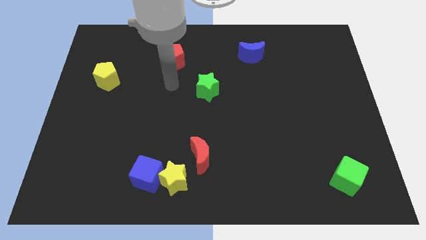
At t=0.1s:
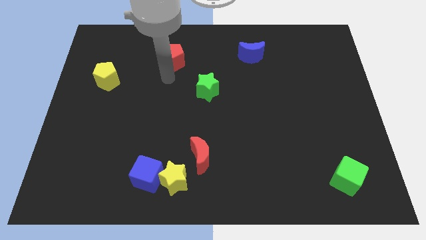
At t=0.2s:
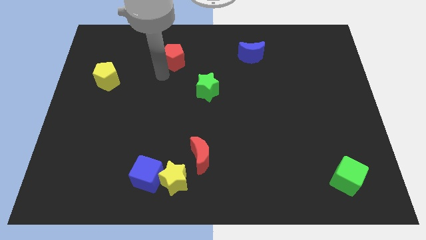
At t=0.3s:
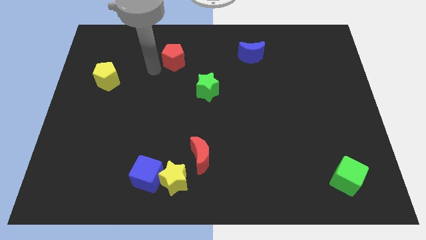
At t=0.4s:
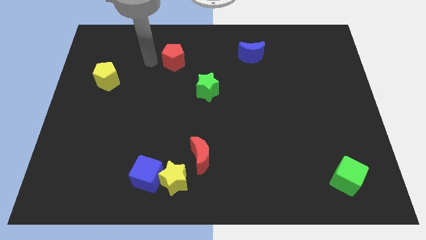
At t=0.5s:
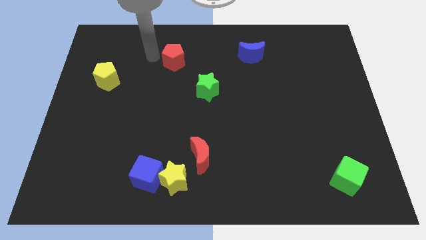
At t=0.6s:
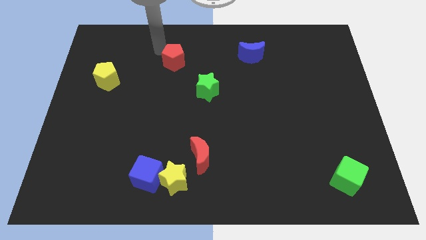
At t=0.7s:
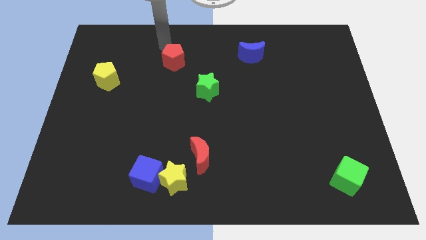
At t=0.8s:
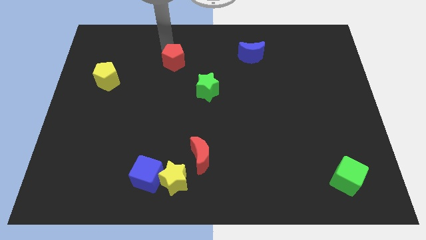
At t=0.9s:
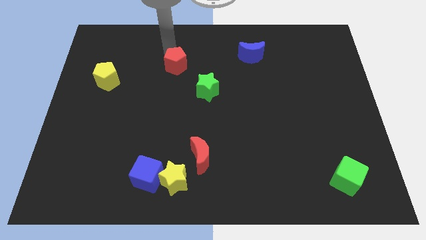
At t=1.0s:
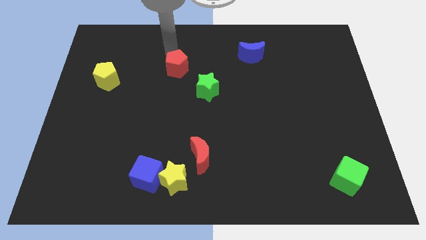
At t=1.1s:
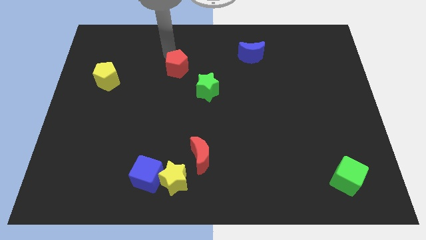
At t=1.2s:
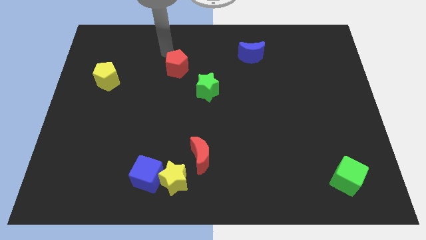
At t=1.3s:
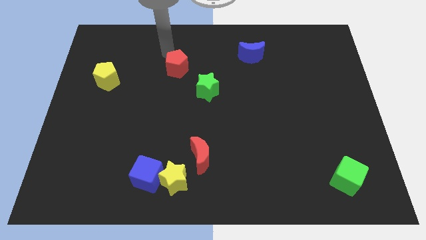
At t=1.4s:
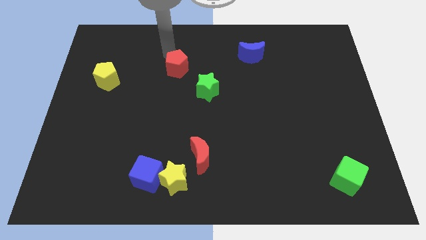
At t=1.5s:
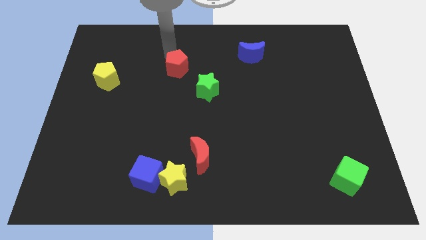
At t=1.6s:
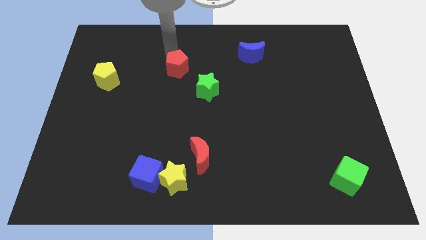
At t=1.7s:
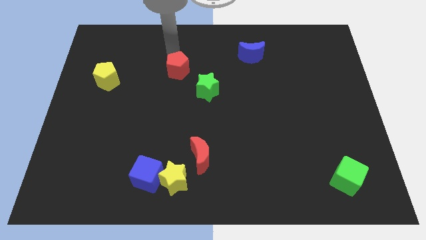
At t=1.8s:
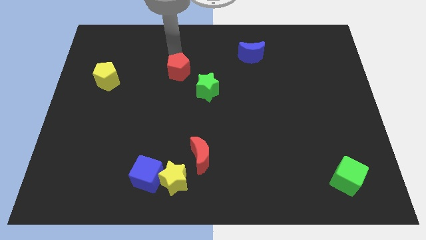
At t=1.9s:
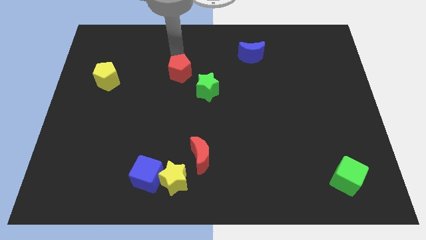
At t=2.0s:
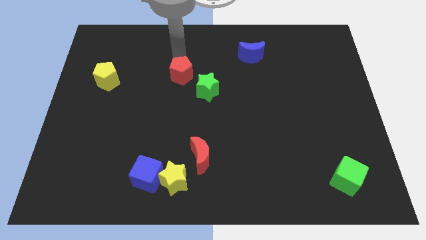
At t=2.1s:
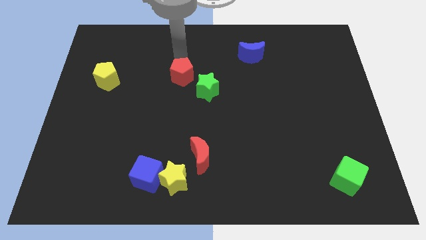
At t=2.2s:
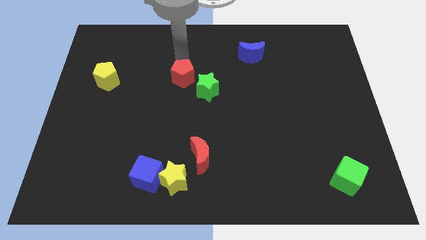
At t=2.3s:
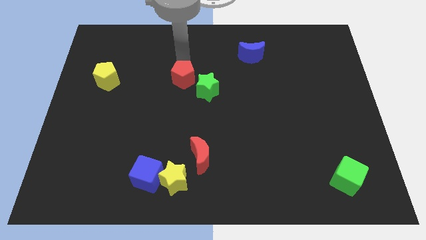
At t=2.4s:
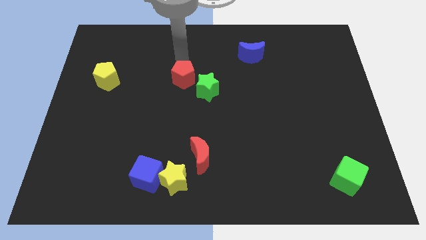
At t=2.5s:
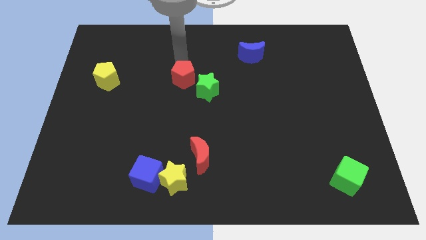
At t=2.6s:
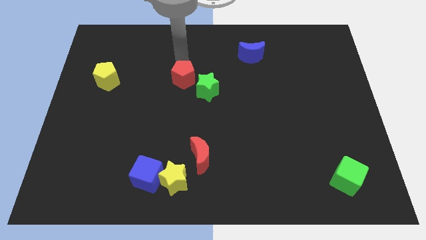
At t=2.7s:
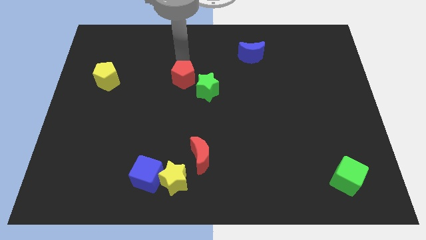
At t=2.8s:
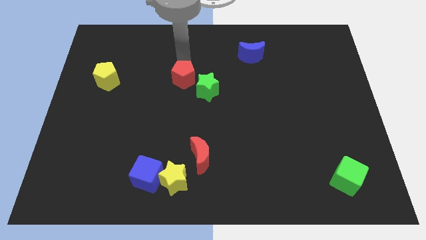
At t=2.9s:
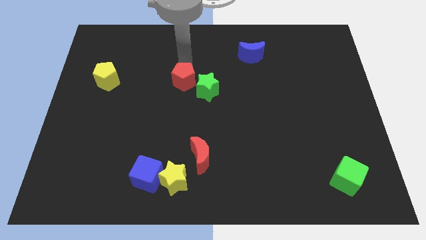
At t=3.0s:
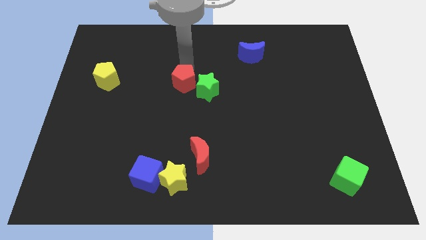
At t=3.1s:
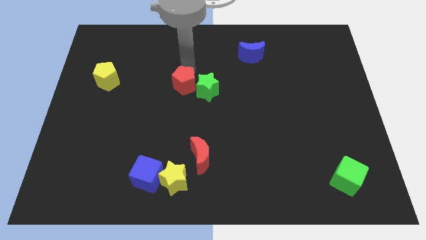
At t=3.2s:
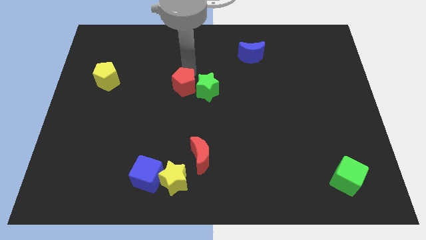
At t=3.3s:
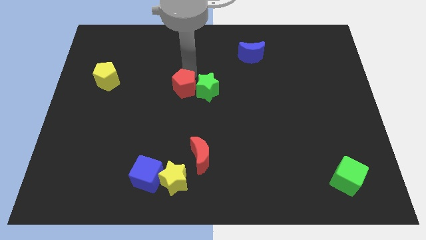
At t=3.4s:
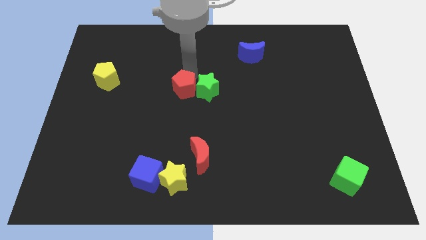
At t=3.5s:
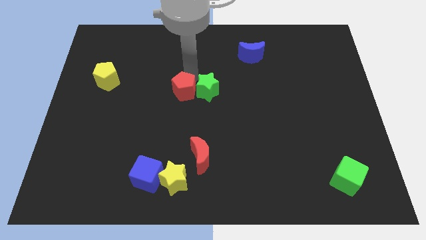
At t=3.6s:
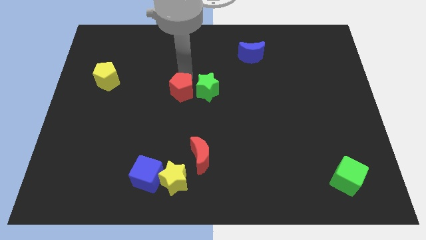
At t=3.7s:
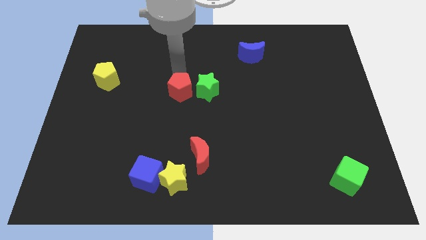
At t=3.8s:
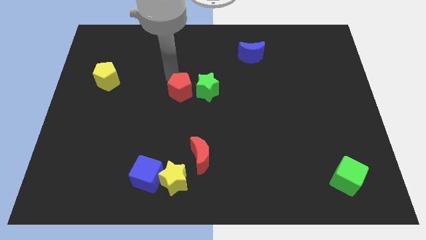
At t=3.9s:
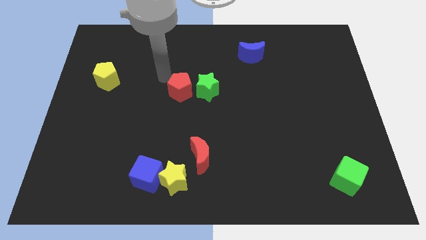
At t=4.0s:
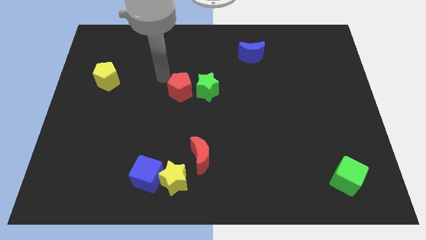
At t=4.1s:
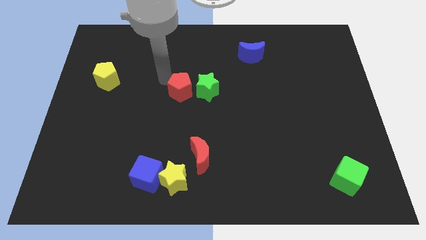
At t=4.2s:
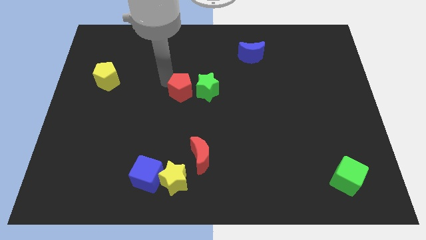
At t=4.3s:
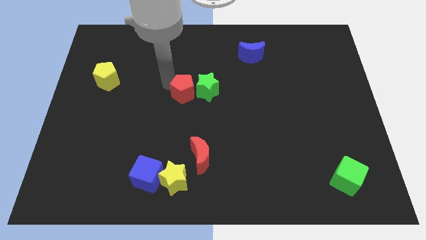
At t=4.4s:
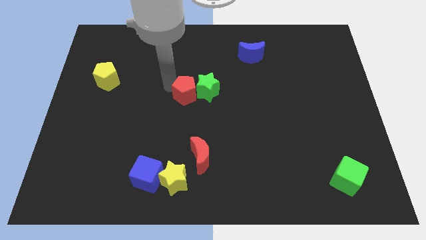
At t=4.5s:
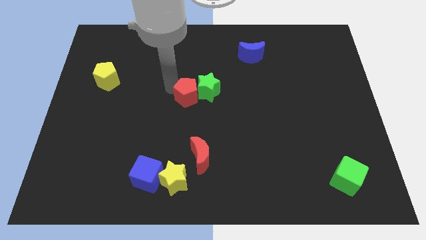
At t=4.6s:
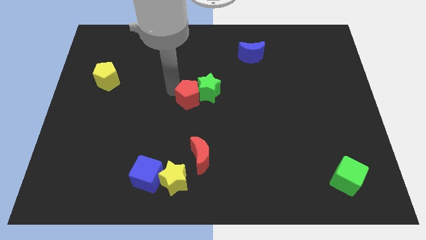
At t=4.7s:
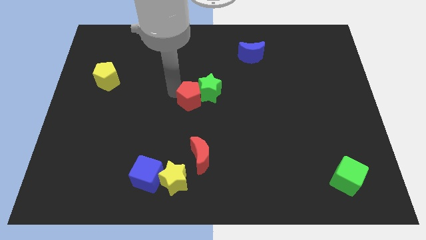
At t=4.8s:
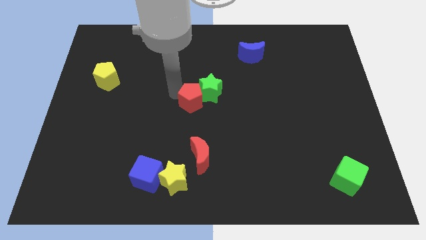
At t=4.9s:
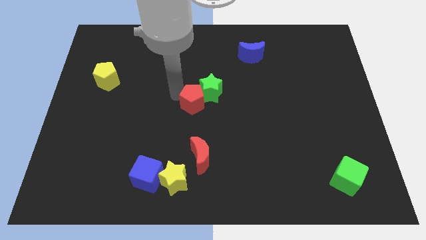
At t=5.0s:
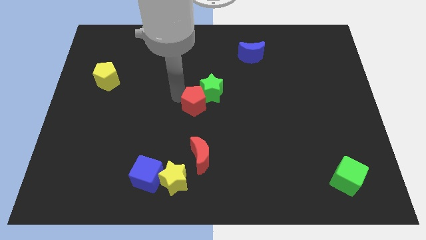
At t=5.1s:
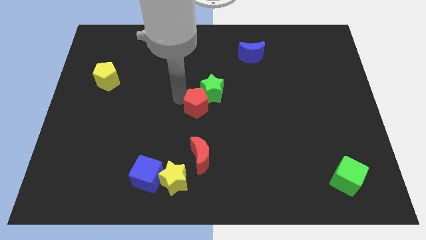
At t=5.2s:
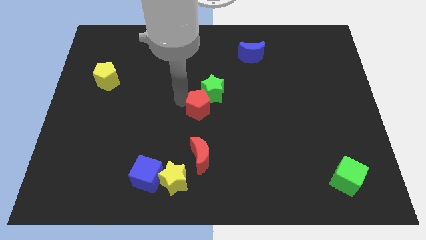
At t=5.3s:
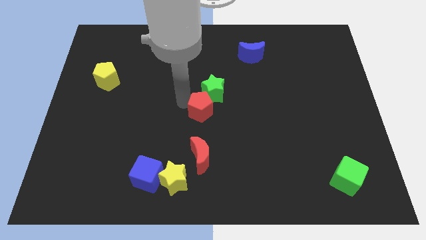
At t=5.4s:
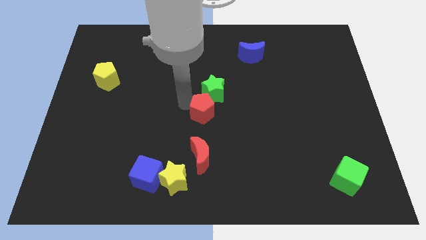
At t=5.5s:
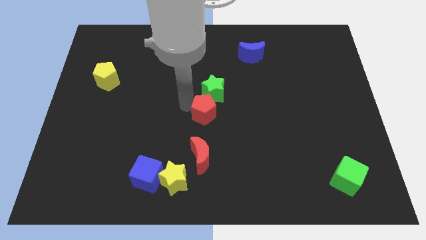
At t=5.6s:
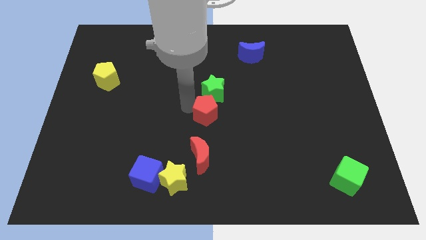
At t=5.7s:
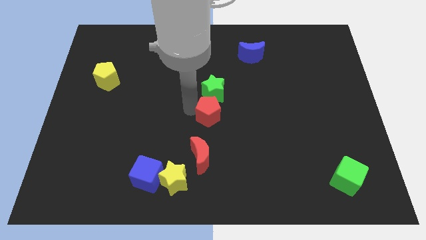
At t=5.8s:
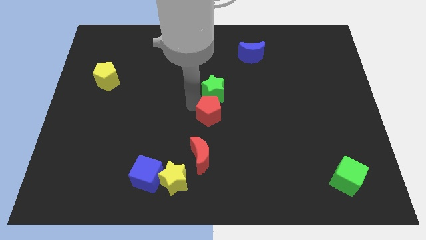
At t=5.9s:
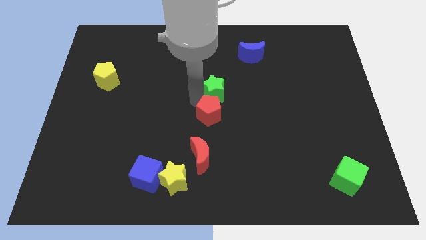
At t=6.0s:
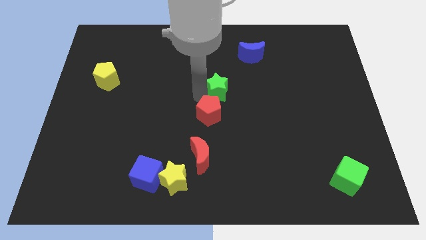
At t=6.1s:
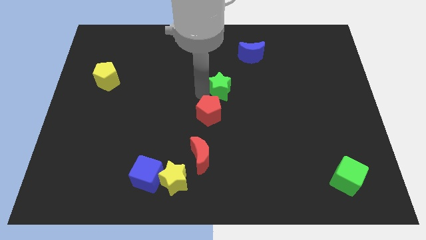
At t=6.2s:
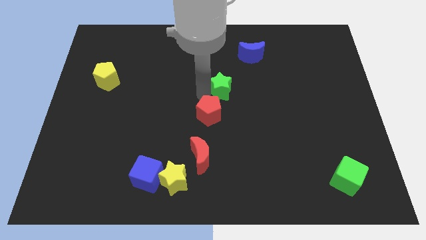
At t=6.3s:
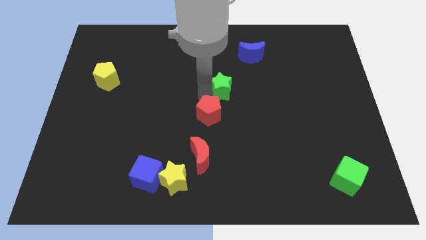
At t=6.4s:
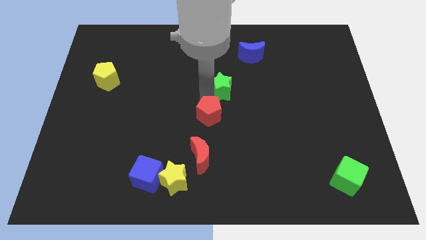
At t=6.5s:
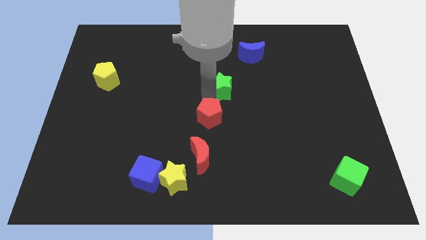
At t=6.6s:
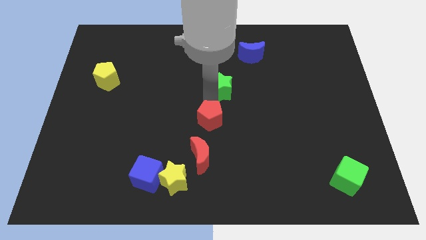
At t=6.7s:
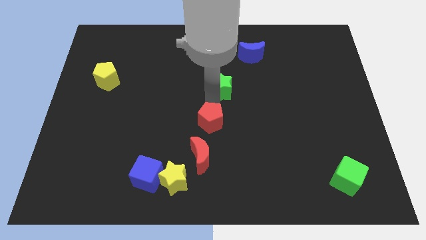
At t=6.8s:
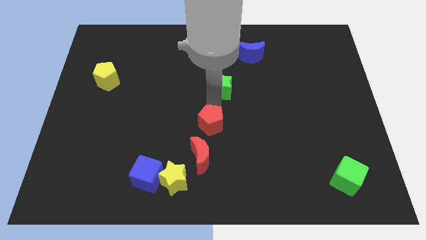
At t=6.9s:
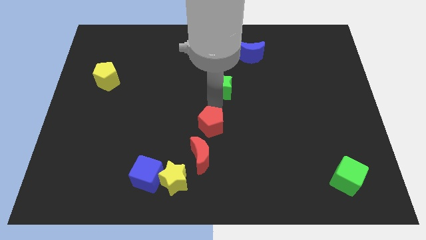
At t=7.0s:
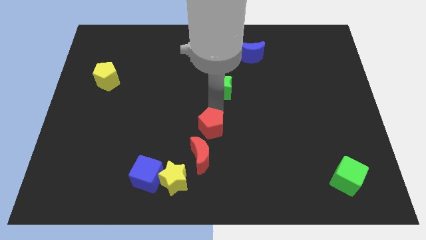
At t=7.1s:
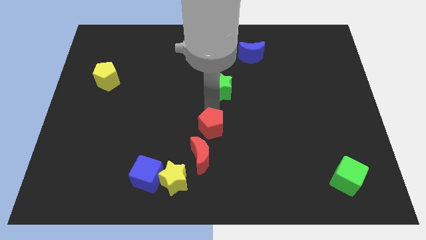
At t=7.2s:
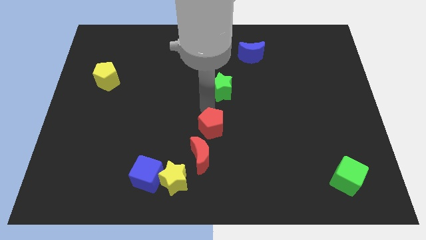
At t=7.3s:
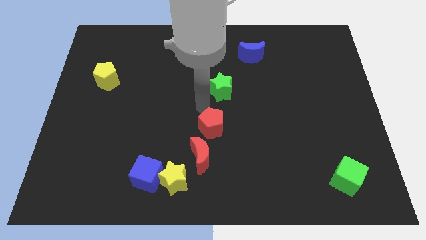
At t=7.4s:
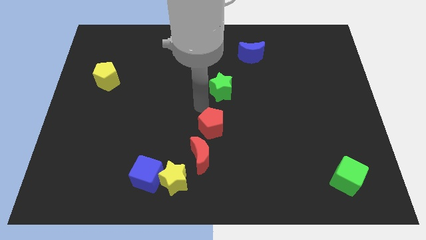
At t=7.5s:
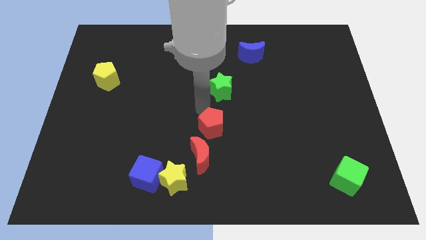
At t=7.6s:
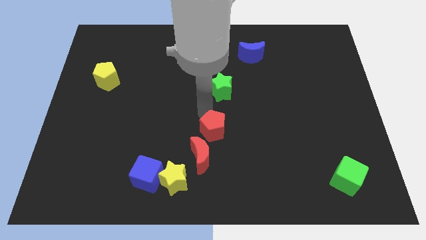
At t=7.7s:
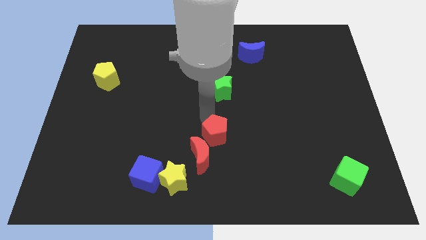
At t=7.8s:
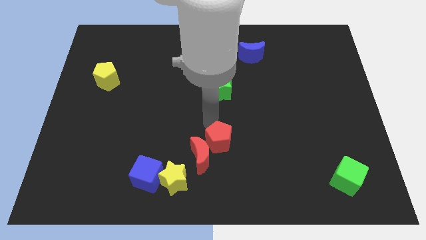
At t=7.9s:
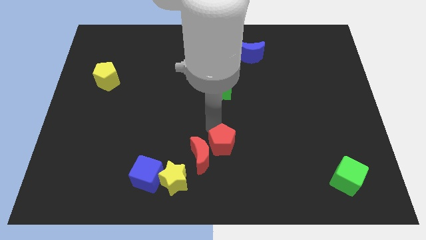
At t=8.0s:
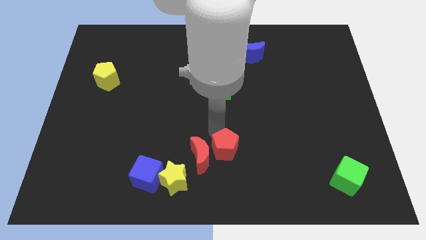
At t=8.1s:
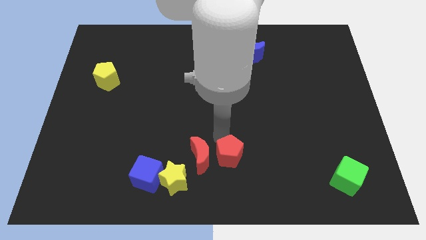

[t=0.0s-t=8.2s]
push the red pentagon to the bottom
